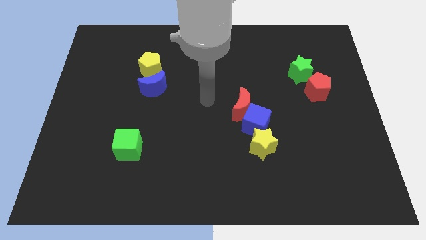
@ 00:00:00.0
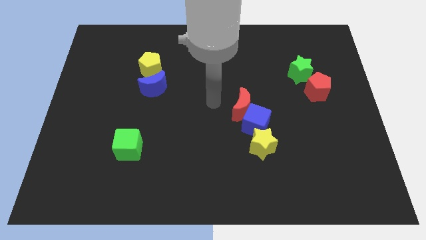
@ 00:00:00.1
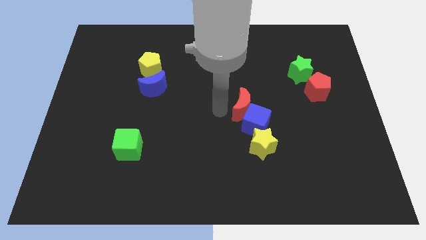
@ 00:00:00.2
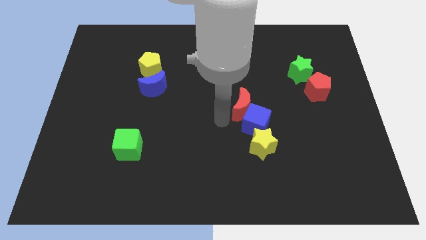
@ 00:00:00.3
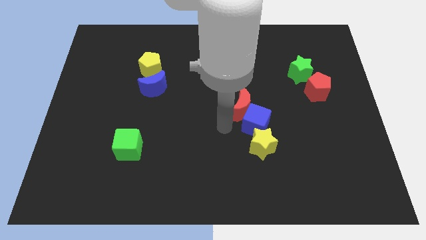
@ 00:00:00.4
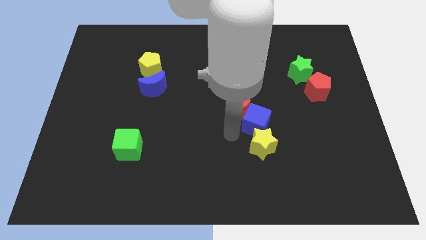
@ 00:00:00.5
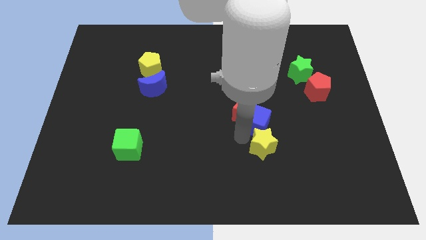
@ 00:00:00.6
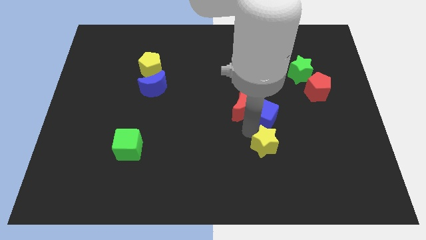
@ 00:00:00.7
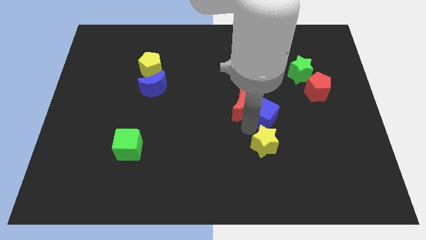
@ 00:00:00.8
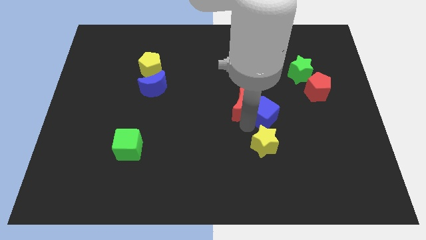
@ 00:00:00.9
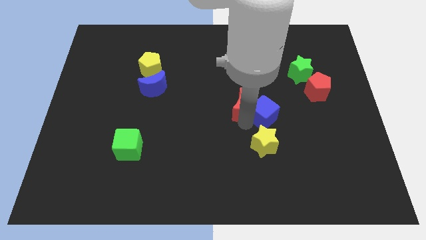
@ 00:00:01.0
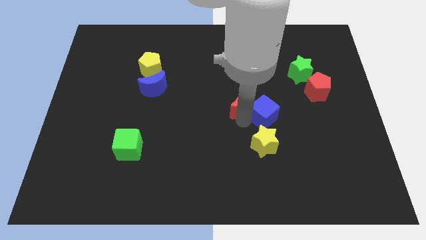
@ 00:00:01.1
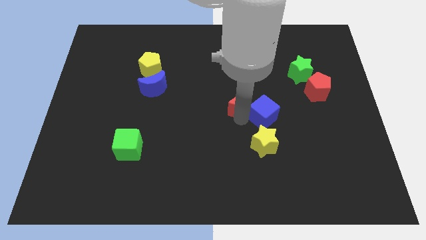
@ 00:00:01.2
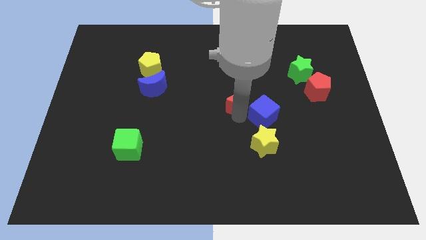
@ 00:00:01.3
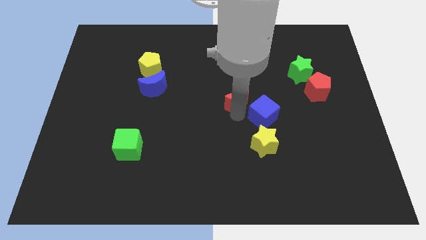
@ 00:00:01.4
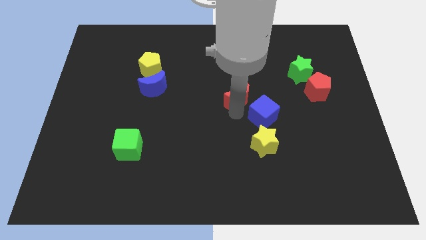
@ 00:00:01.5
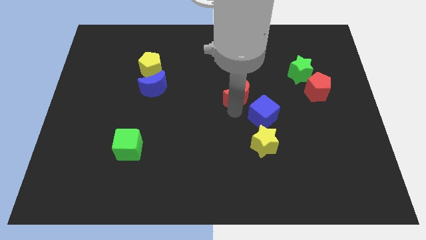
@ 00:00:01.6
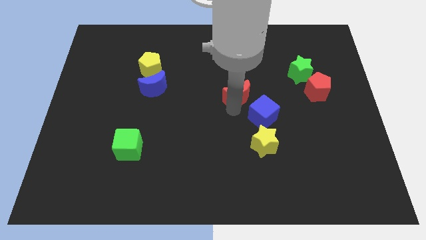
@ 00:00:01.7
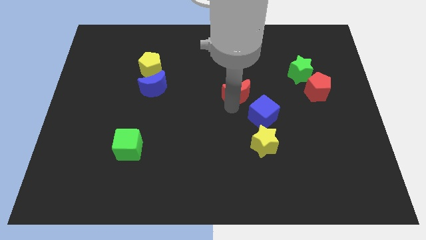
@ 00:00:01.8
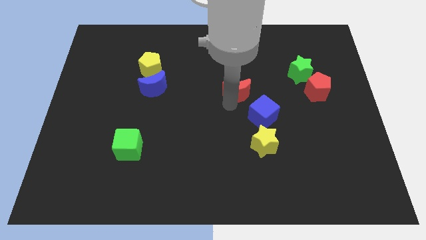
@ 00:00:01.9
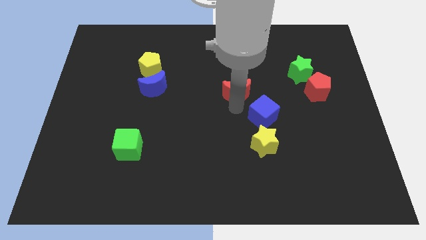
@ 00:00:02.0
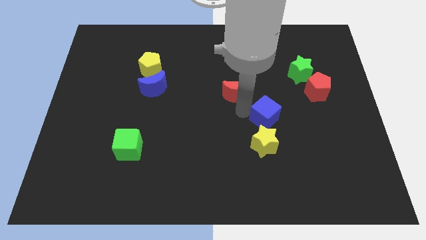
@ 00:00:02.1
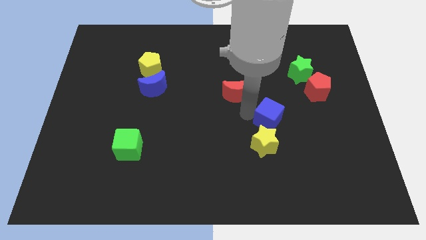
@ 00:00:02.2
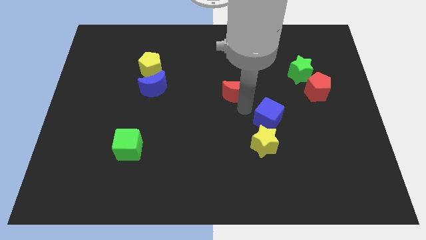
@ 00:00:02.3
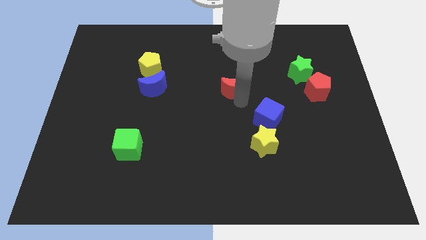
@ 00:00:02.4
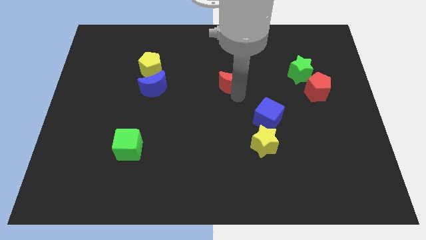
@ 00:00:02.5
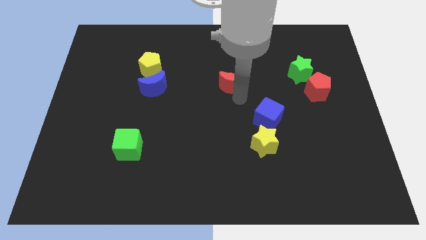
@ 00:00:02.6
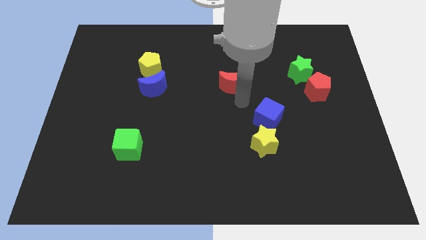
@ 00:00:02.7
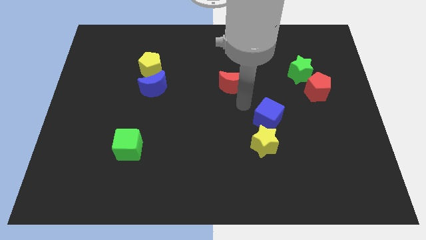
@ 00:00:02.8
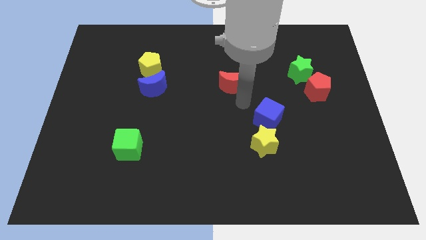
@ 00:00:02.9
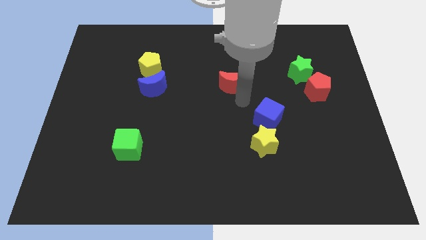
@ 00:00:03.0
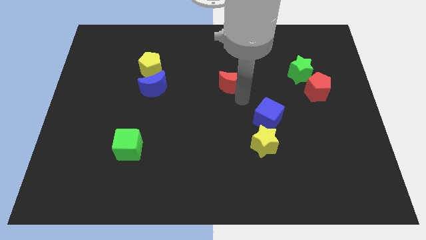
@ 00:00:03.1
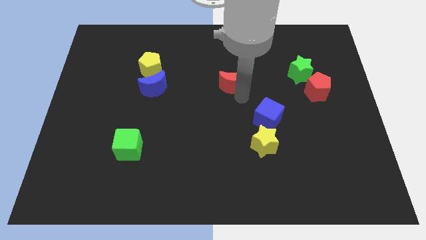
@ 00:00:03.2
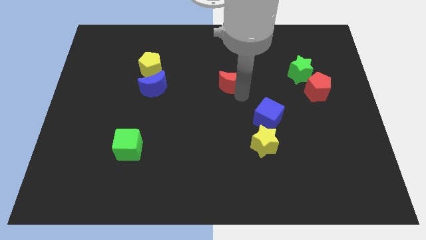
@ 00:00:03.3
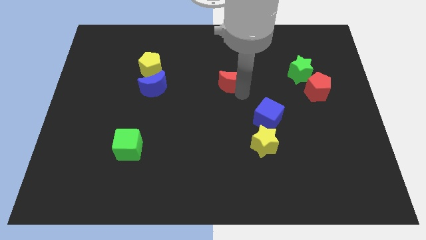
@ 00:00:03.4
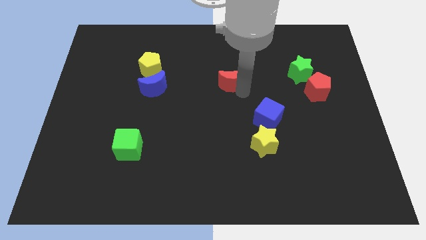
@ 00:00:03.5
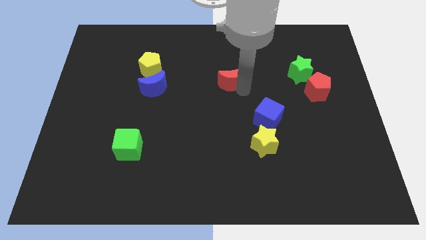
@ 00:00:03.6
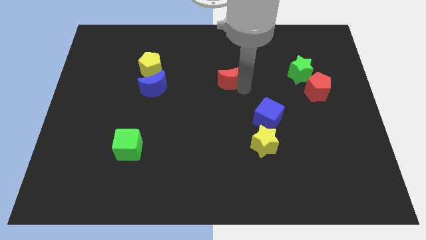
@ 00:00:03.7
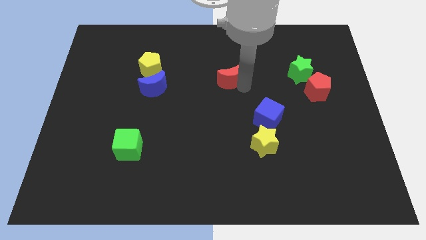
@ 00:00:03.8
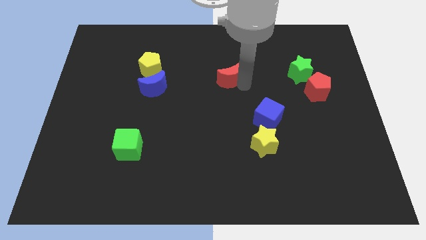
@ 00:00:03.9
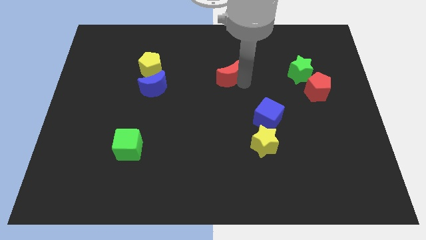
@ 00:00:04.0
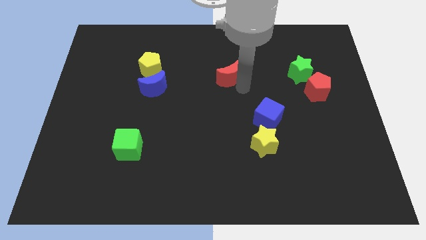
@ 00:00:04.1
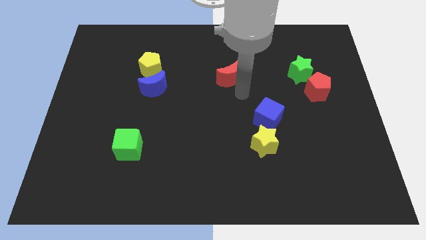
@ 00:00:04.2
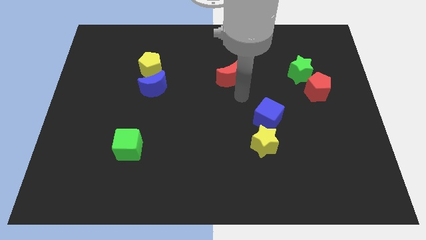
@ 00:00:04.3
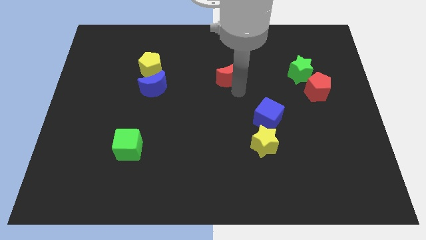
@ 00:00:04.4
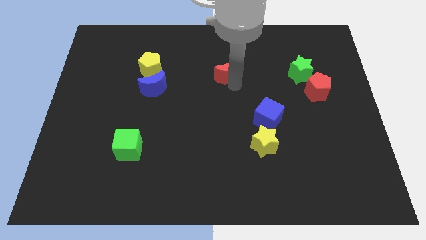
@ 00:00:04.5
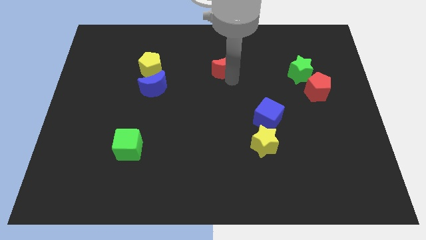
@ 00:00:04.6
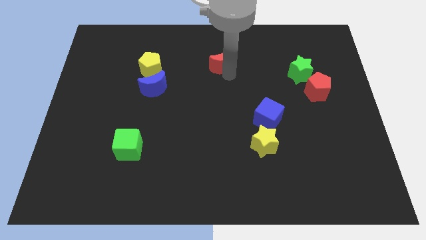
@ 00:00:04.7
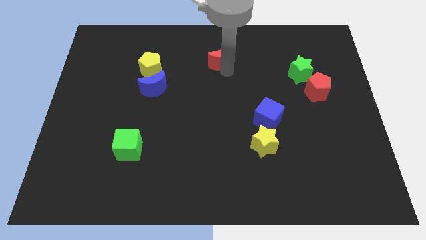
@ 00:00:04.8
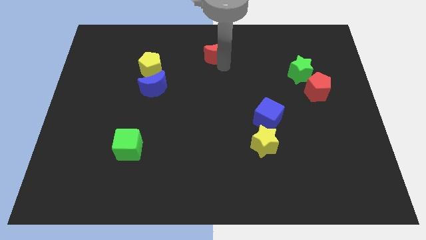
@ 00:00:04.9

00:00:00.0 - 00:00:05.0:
slide the red moon to the towards your base

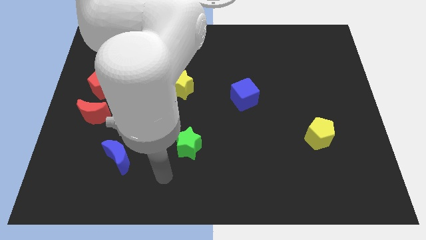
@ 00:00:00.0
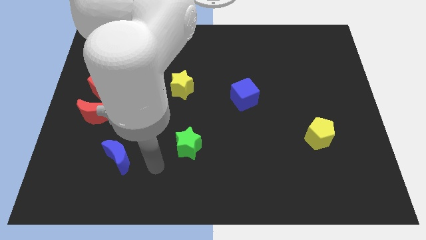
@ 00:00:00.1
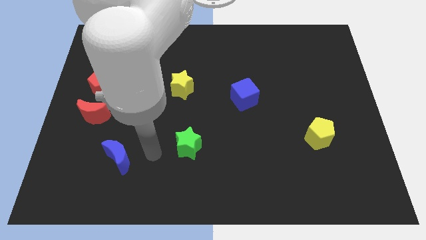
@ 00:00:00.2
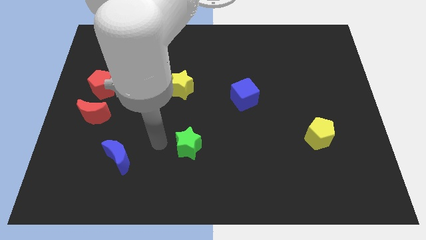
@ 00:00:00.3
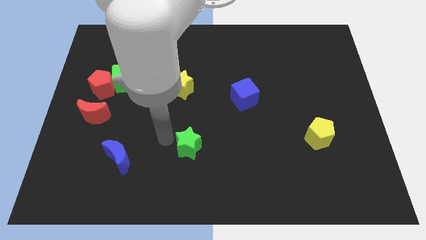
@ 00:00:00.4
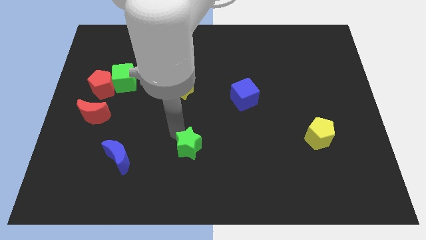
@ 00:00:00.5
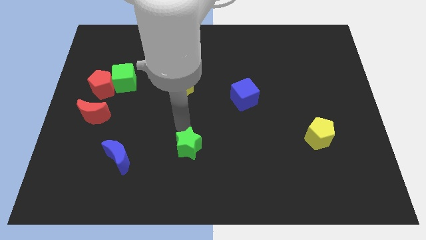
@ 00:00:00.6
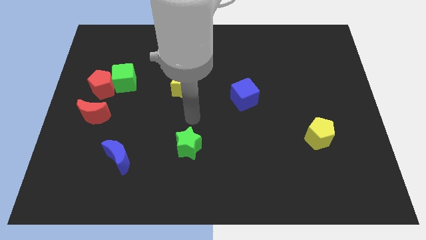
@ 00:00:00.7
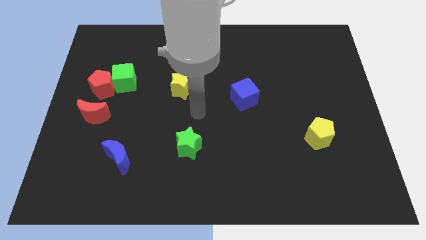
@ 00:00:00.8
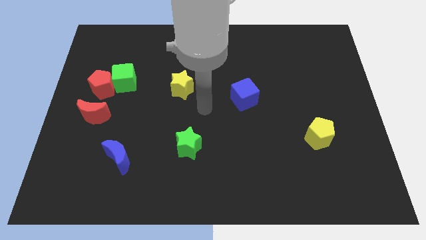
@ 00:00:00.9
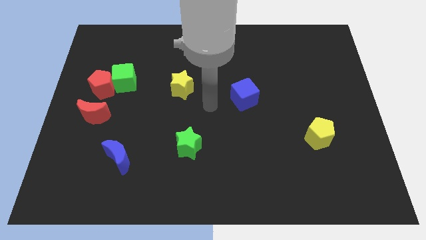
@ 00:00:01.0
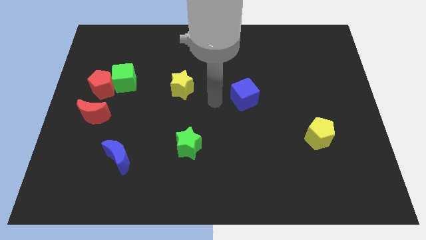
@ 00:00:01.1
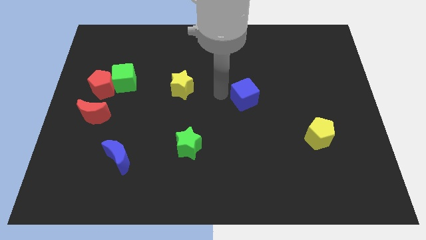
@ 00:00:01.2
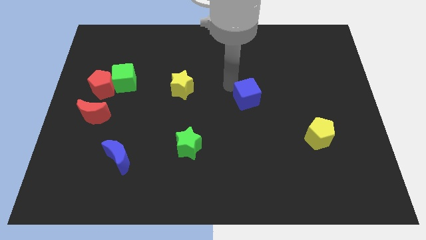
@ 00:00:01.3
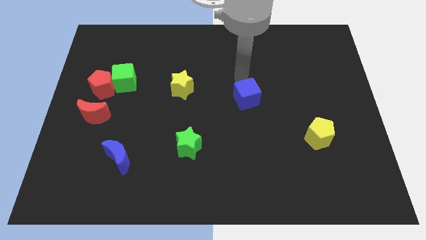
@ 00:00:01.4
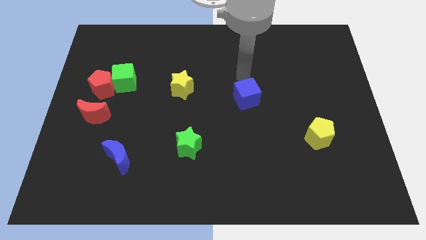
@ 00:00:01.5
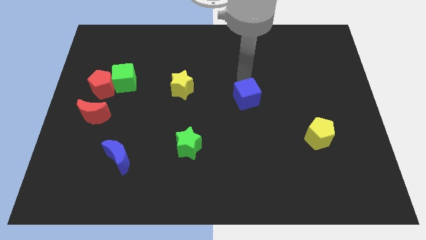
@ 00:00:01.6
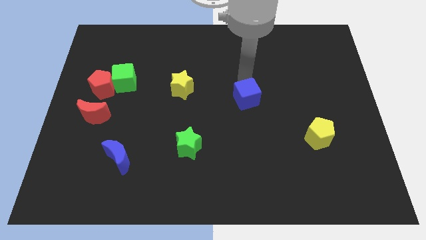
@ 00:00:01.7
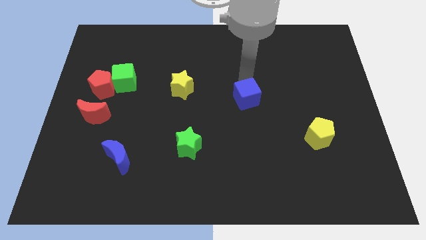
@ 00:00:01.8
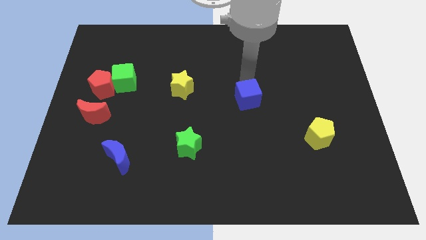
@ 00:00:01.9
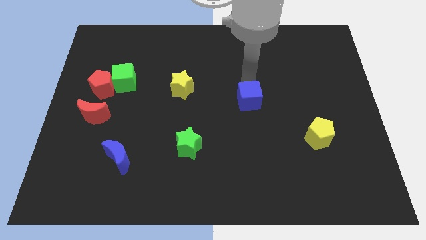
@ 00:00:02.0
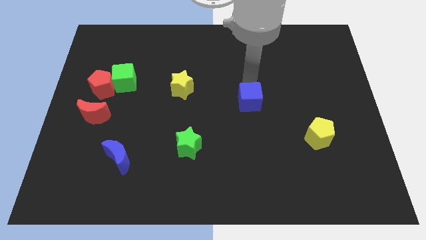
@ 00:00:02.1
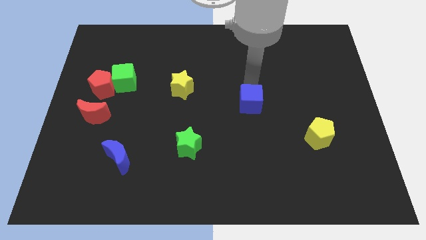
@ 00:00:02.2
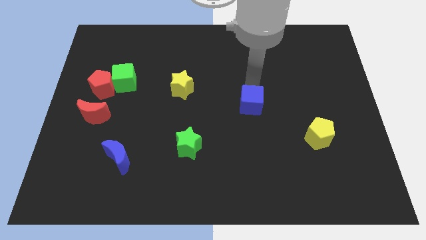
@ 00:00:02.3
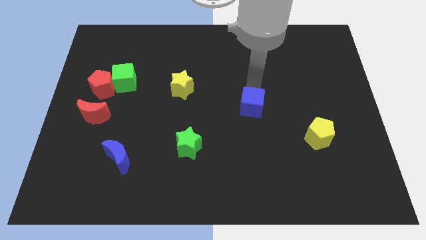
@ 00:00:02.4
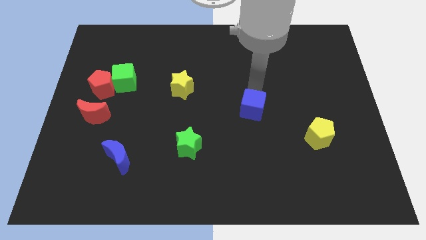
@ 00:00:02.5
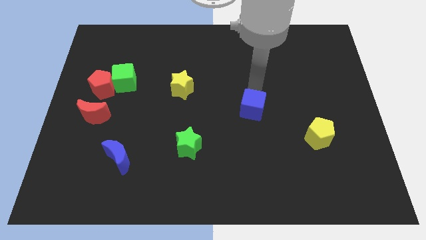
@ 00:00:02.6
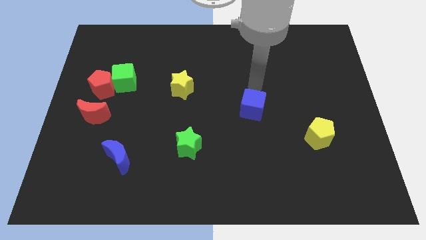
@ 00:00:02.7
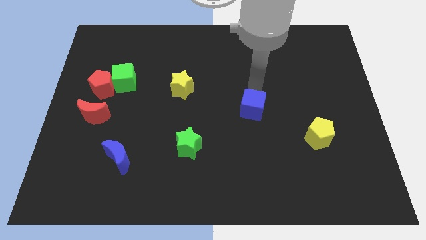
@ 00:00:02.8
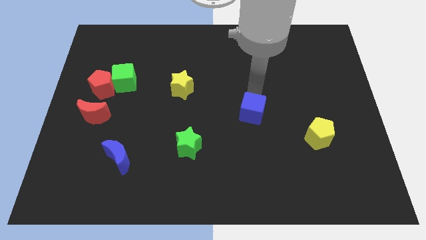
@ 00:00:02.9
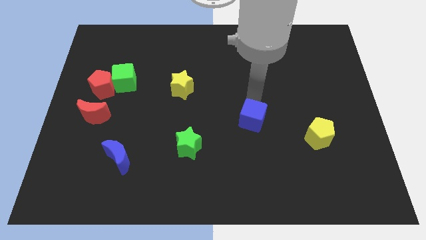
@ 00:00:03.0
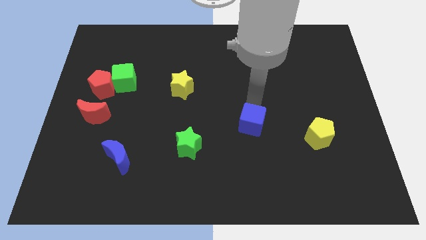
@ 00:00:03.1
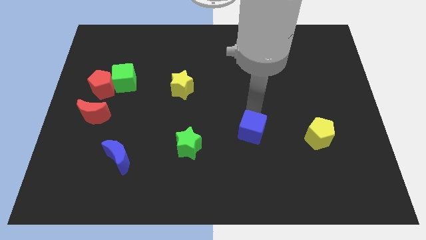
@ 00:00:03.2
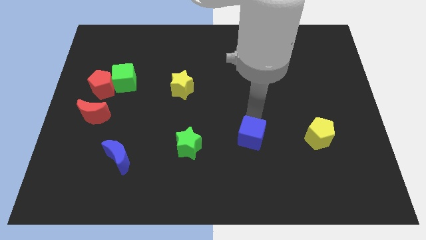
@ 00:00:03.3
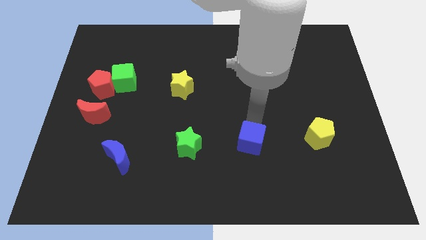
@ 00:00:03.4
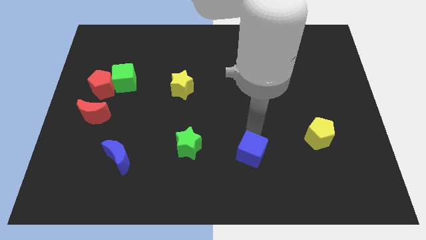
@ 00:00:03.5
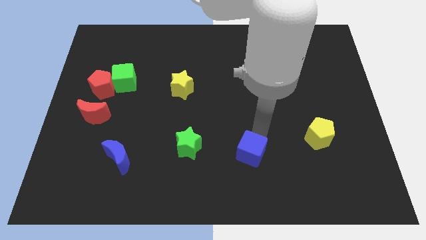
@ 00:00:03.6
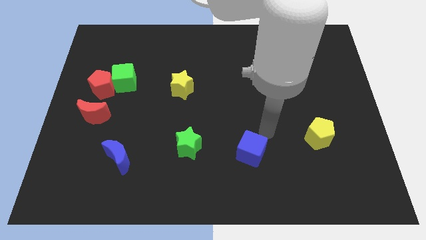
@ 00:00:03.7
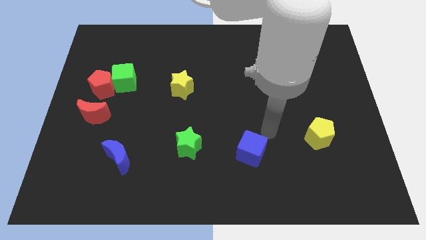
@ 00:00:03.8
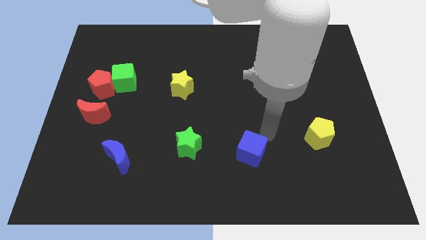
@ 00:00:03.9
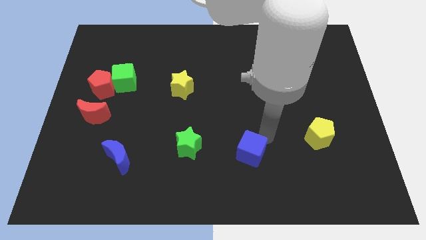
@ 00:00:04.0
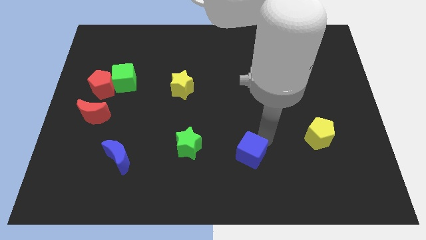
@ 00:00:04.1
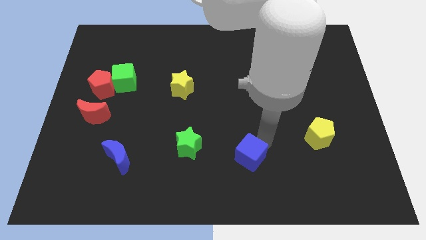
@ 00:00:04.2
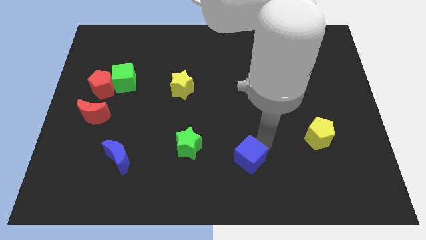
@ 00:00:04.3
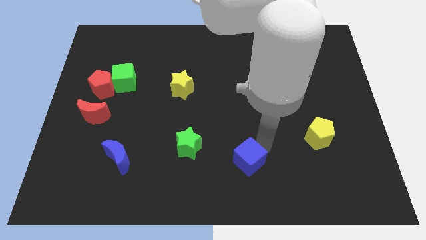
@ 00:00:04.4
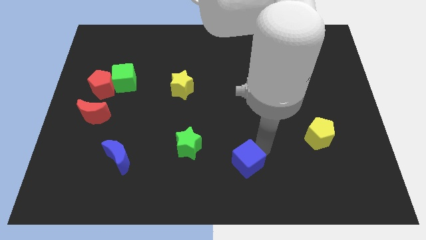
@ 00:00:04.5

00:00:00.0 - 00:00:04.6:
push the blue cube to the bottom
